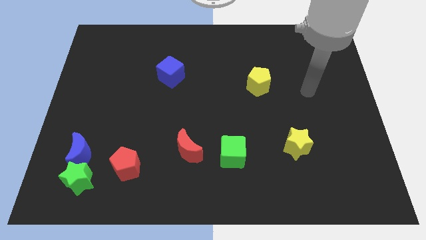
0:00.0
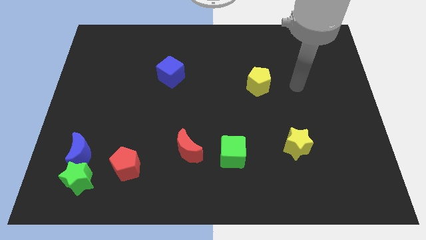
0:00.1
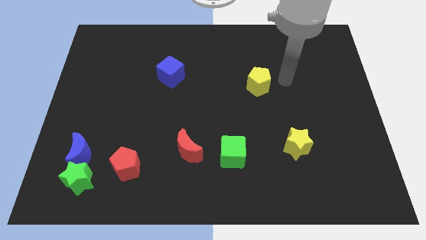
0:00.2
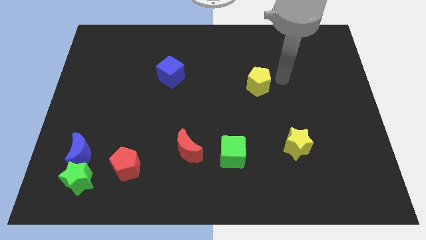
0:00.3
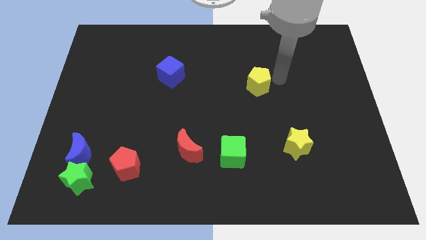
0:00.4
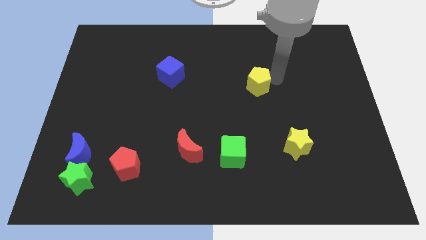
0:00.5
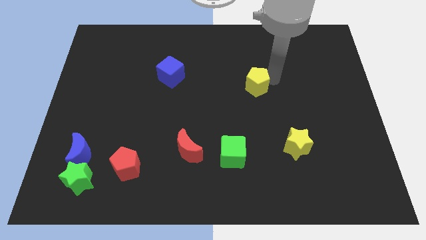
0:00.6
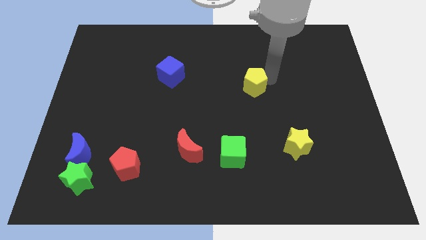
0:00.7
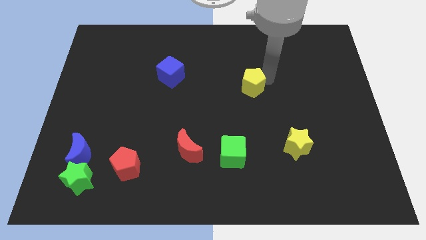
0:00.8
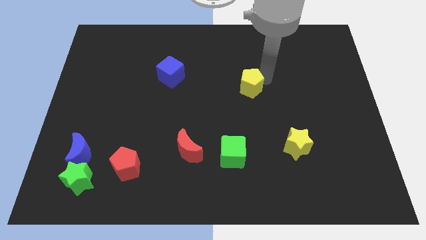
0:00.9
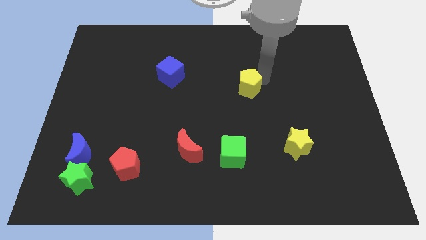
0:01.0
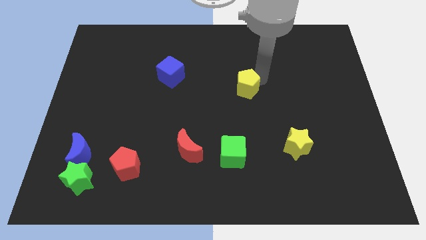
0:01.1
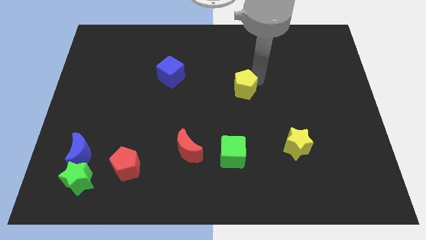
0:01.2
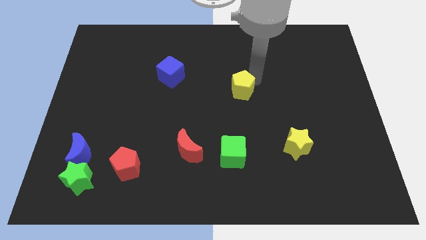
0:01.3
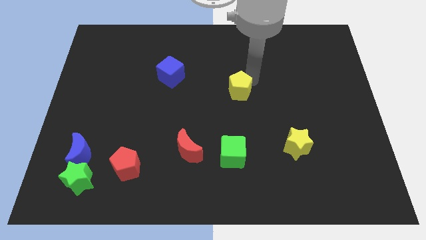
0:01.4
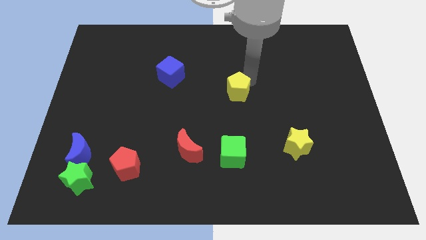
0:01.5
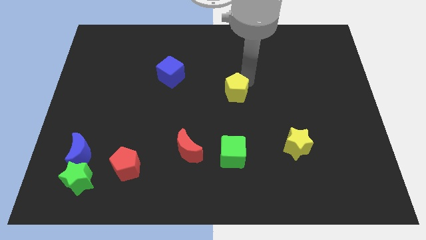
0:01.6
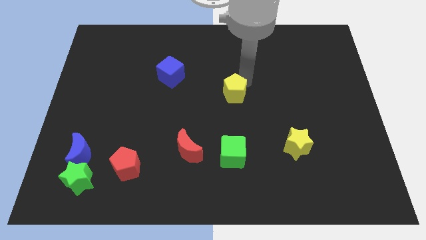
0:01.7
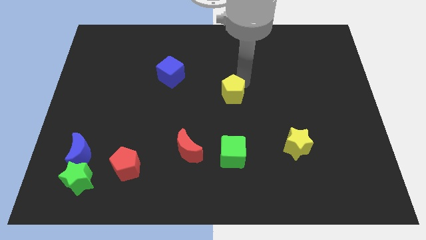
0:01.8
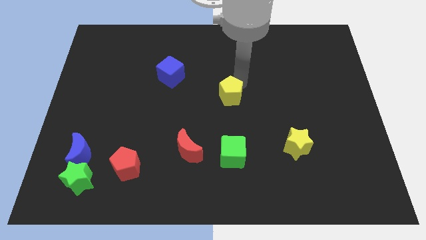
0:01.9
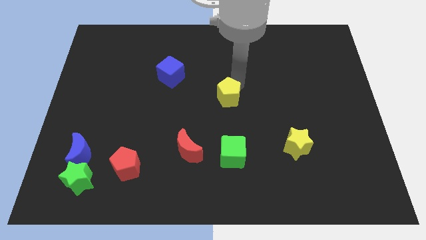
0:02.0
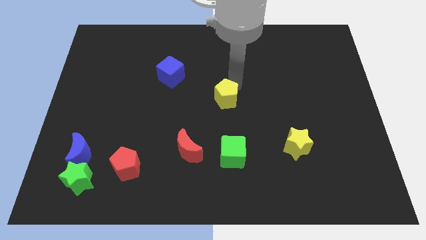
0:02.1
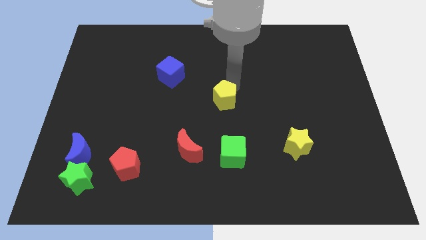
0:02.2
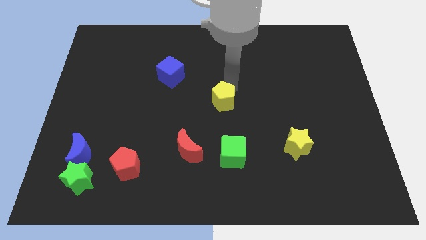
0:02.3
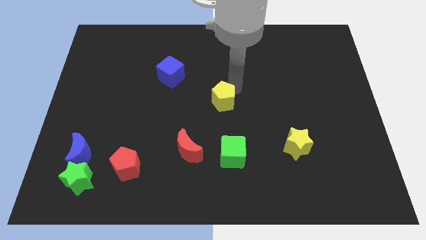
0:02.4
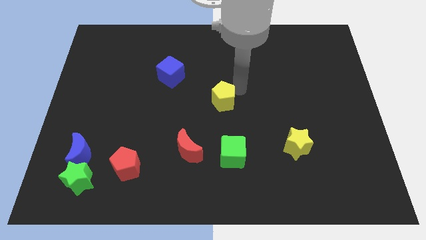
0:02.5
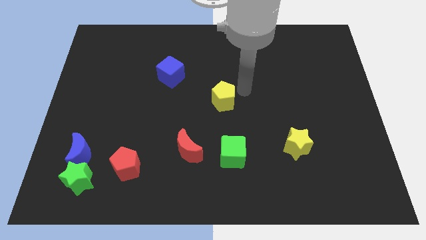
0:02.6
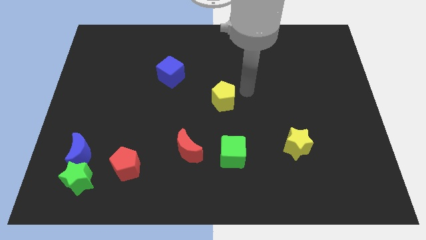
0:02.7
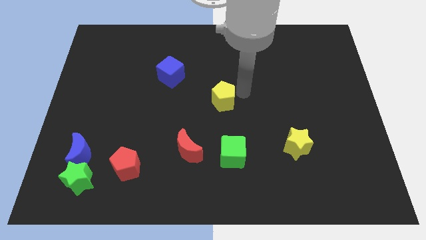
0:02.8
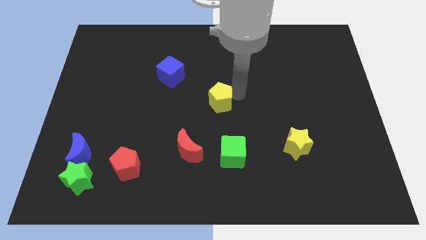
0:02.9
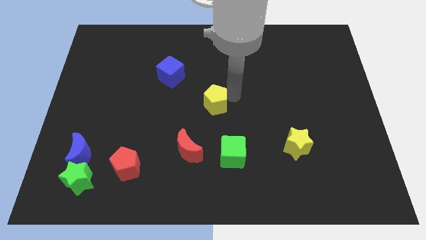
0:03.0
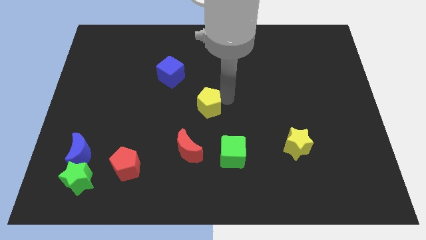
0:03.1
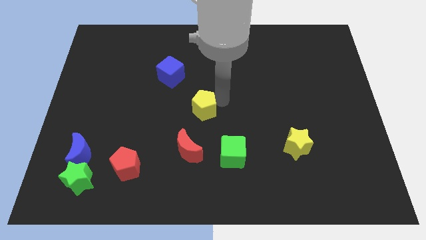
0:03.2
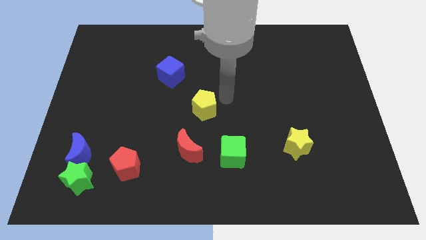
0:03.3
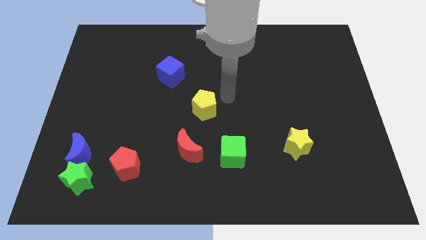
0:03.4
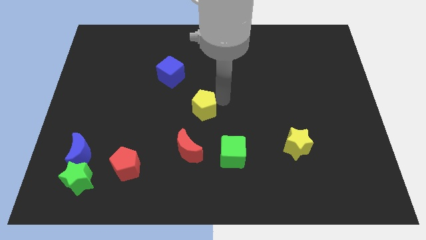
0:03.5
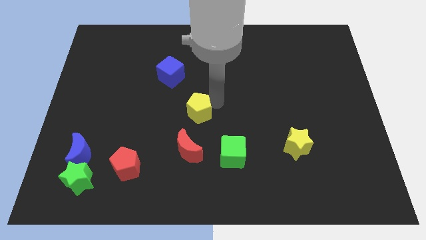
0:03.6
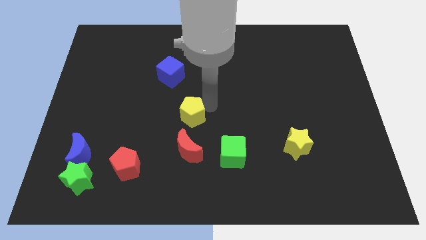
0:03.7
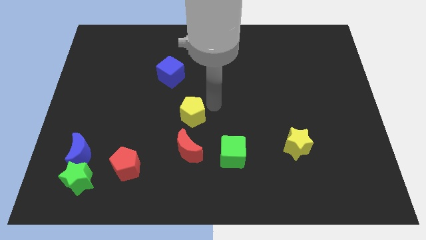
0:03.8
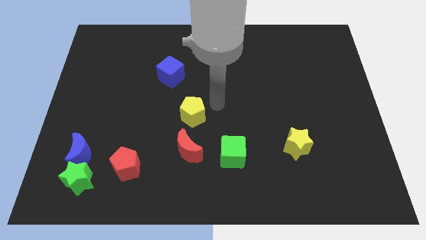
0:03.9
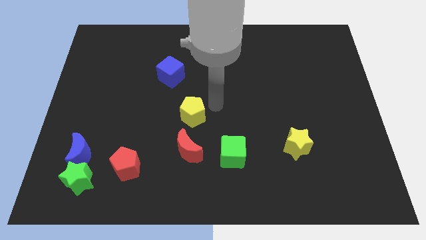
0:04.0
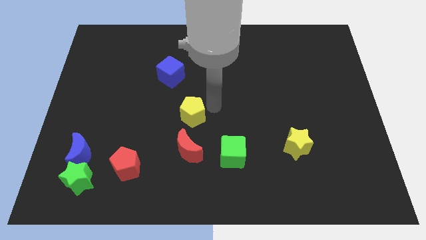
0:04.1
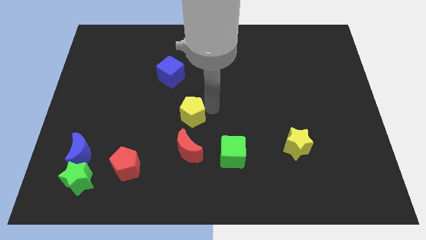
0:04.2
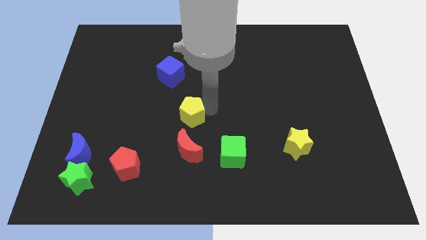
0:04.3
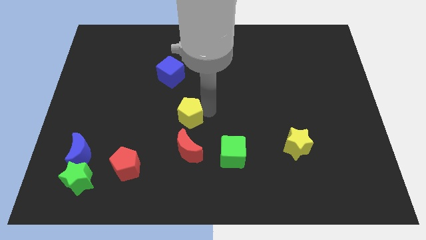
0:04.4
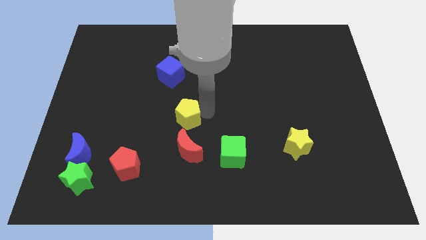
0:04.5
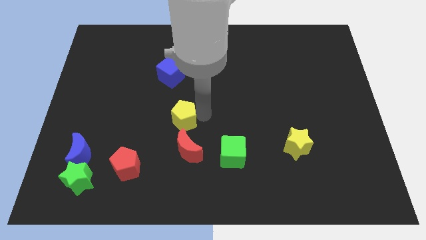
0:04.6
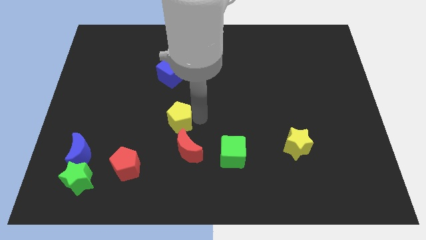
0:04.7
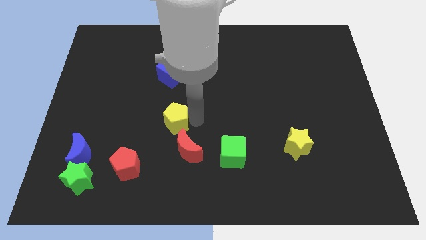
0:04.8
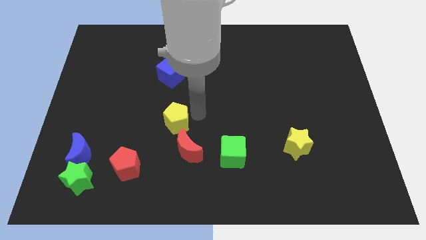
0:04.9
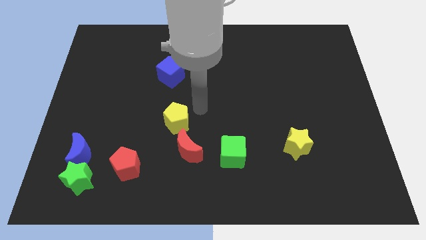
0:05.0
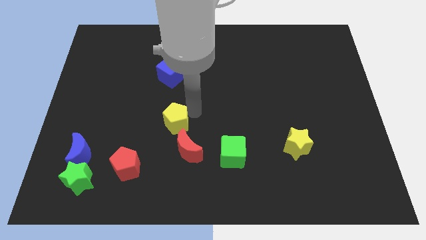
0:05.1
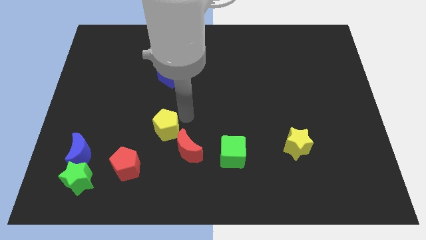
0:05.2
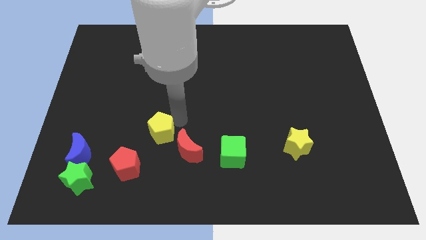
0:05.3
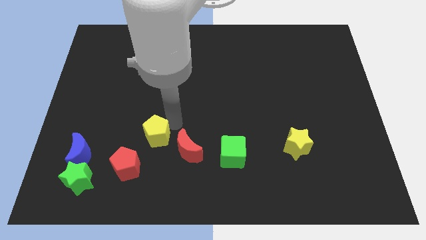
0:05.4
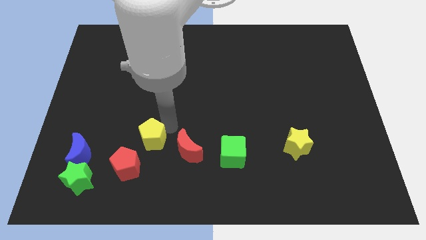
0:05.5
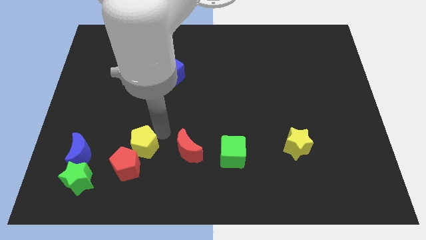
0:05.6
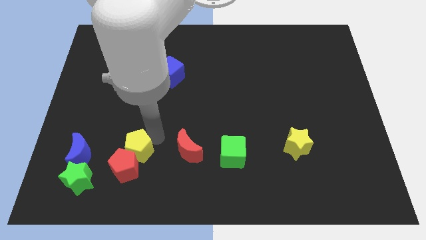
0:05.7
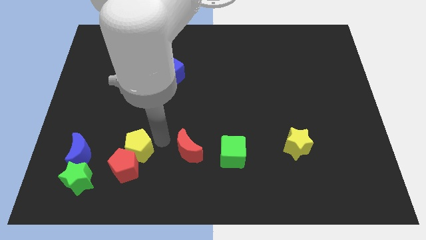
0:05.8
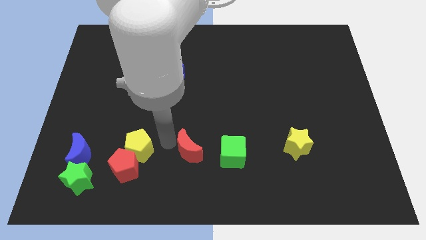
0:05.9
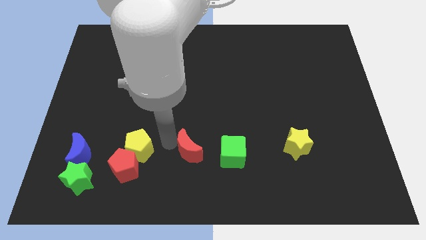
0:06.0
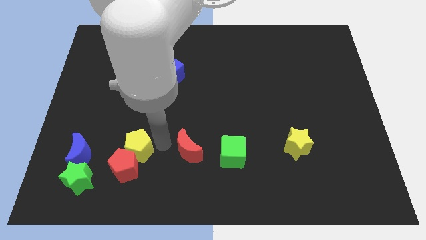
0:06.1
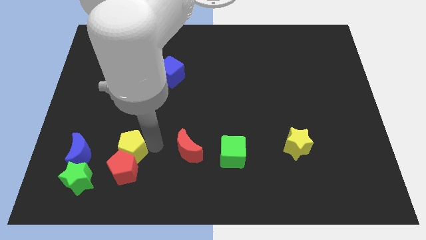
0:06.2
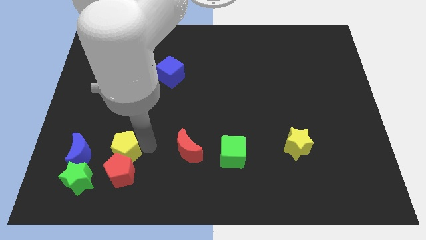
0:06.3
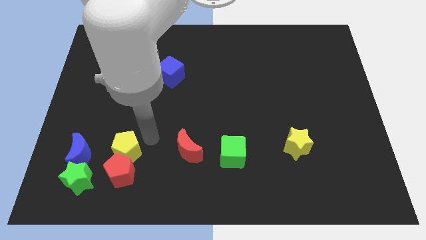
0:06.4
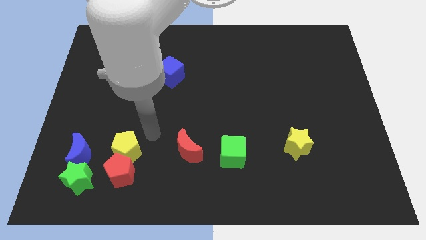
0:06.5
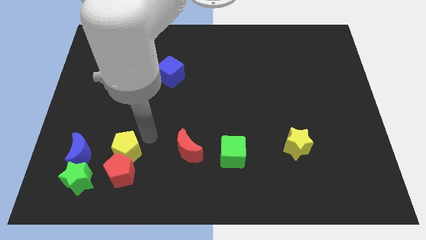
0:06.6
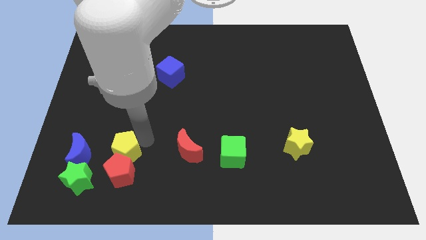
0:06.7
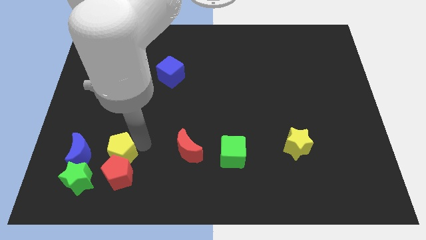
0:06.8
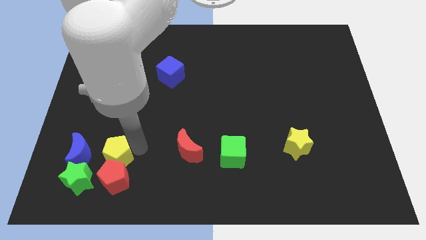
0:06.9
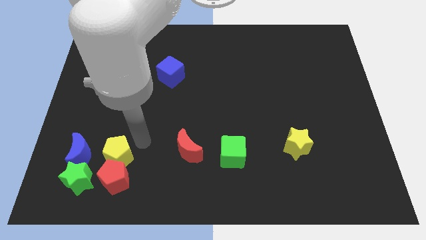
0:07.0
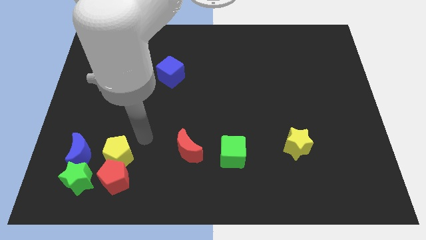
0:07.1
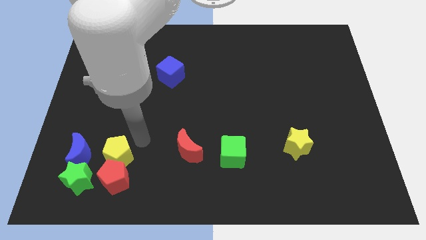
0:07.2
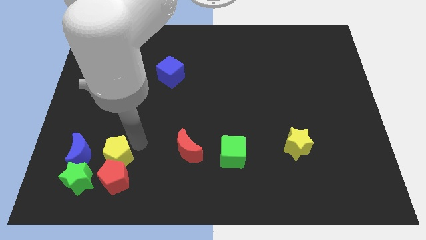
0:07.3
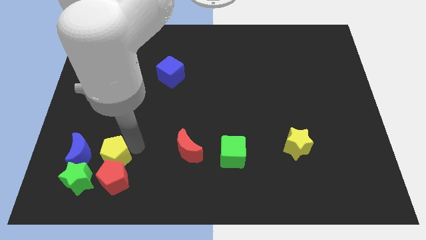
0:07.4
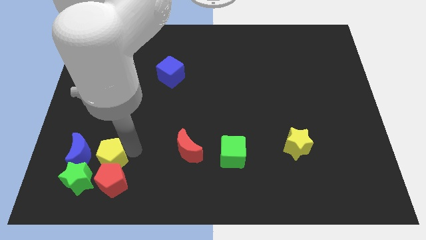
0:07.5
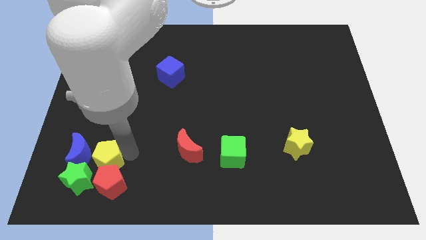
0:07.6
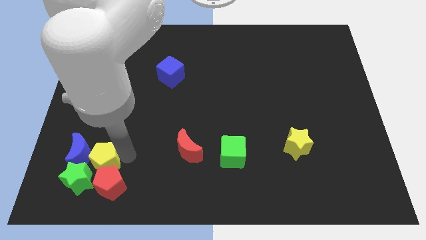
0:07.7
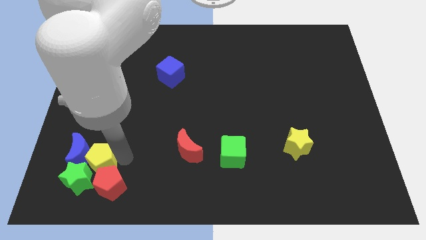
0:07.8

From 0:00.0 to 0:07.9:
put the yellow pentagon towards the green star
